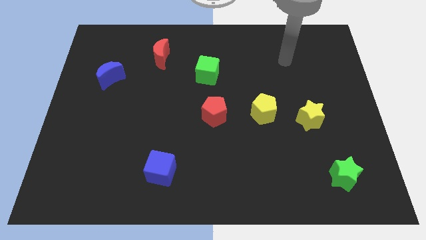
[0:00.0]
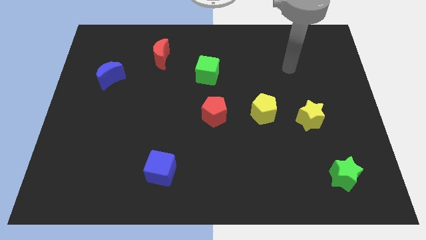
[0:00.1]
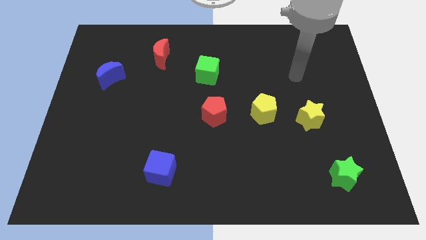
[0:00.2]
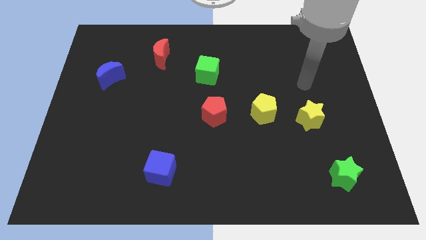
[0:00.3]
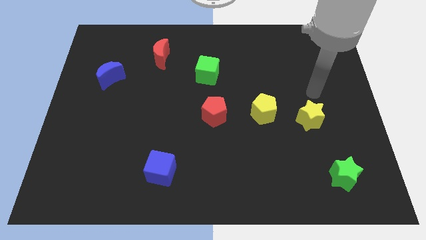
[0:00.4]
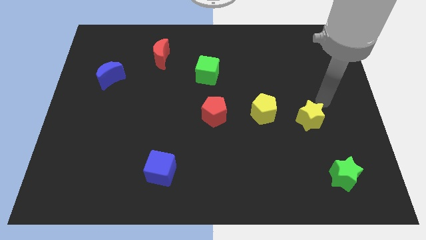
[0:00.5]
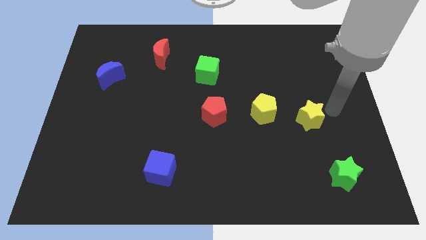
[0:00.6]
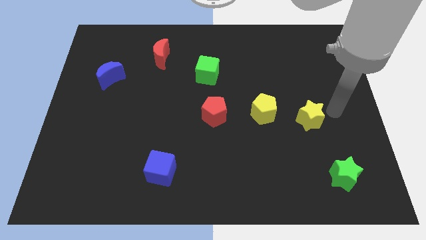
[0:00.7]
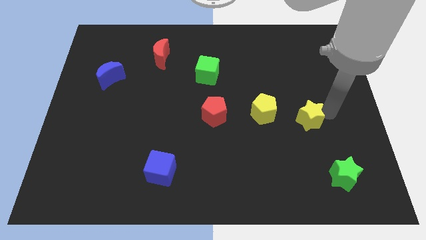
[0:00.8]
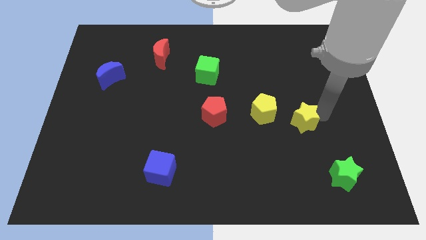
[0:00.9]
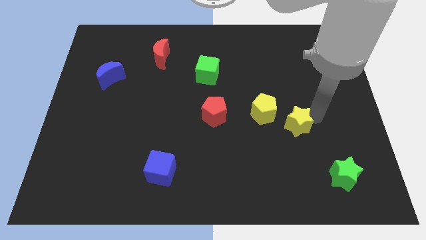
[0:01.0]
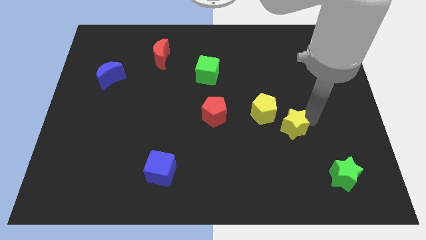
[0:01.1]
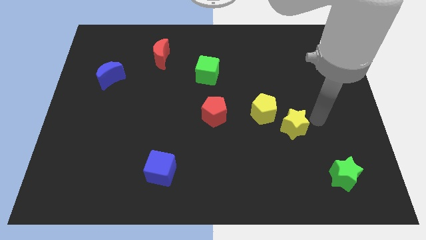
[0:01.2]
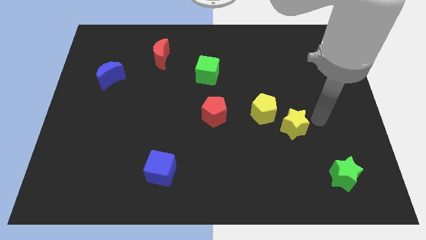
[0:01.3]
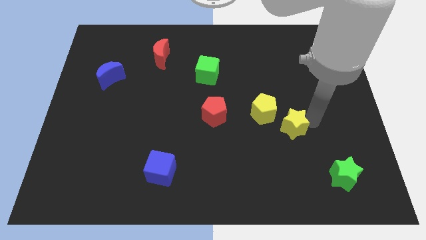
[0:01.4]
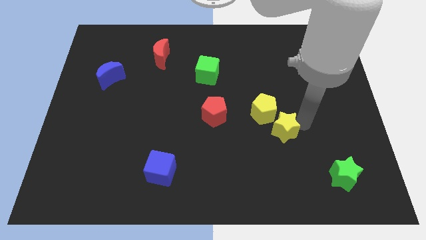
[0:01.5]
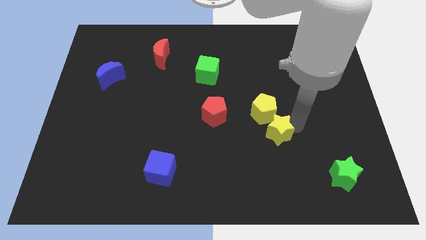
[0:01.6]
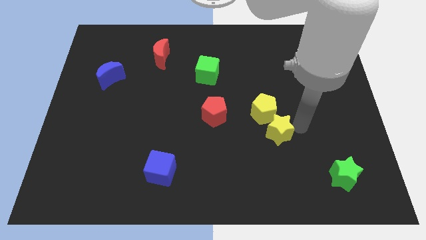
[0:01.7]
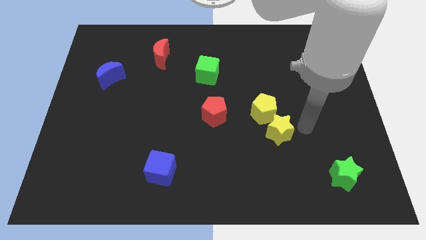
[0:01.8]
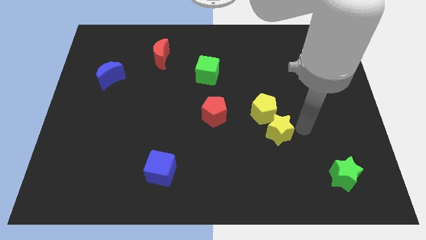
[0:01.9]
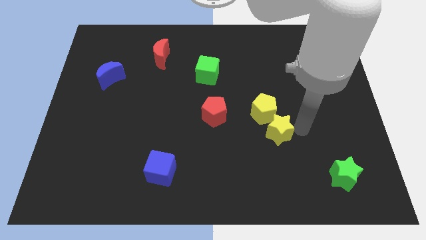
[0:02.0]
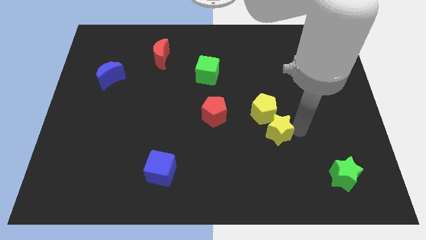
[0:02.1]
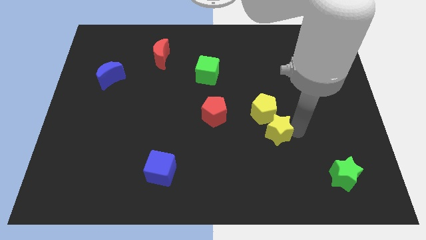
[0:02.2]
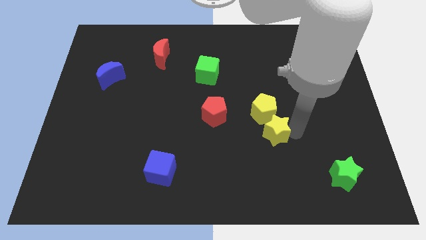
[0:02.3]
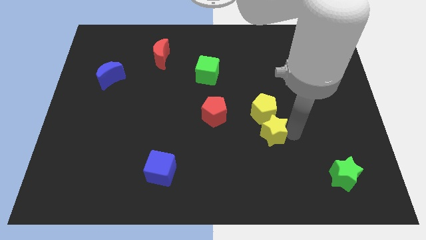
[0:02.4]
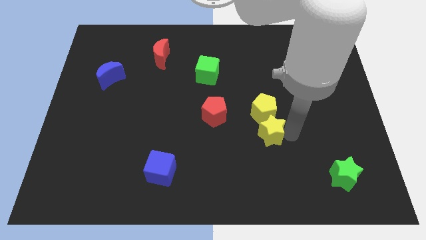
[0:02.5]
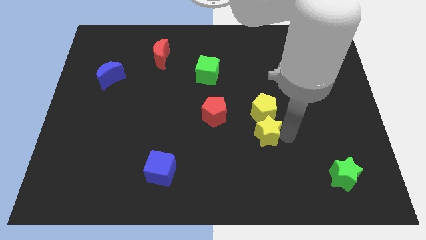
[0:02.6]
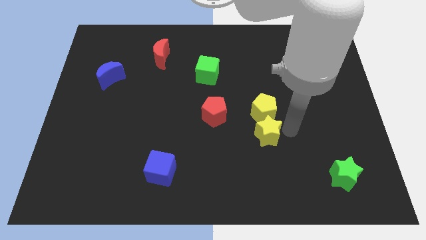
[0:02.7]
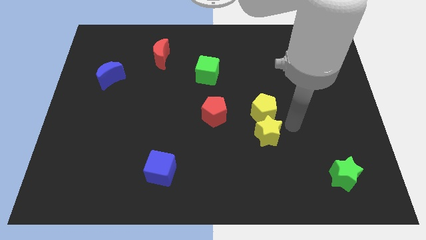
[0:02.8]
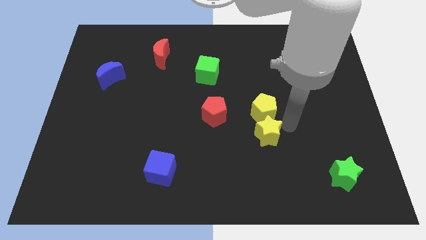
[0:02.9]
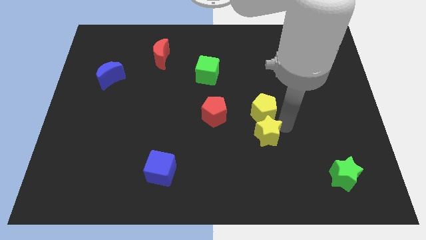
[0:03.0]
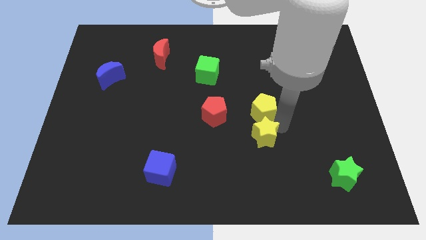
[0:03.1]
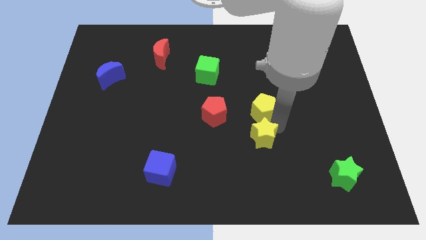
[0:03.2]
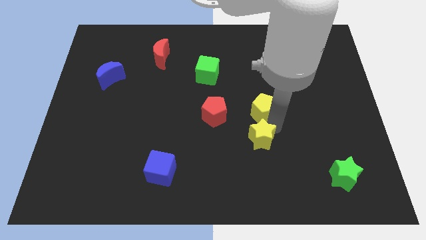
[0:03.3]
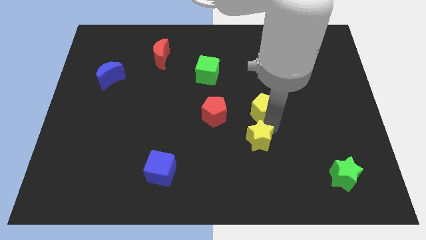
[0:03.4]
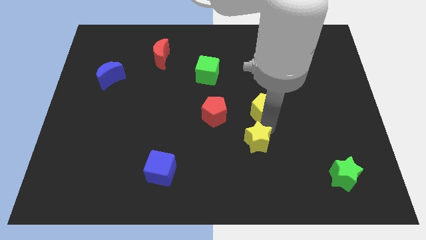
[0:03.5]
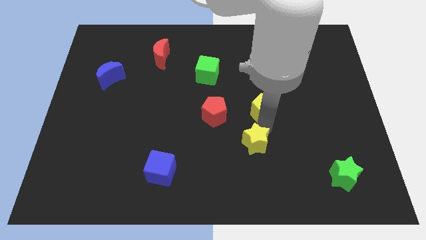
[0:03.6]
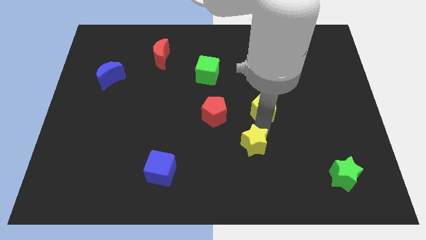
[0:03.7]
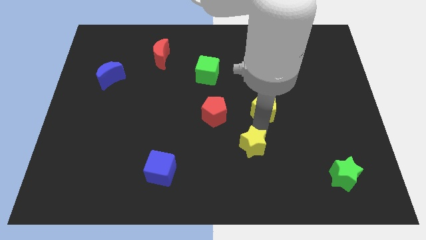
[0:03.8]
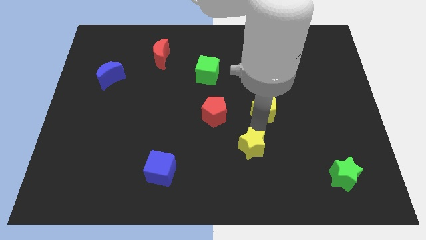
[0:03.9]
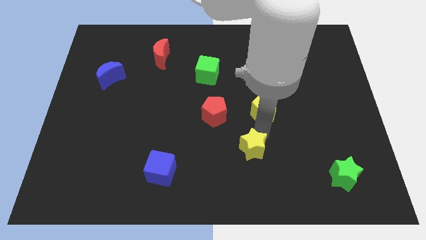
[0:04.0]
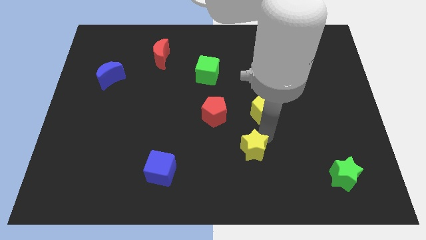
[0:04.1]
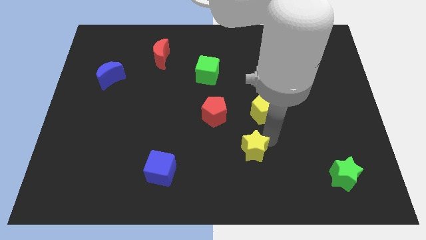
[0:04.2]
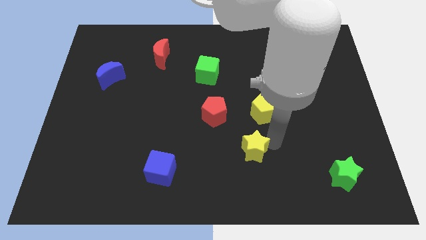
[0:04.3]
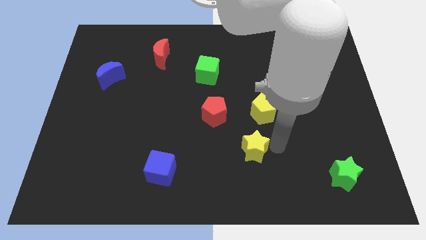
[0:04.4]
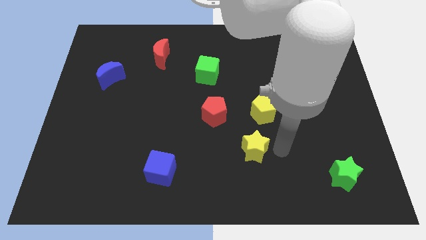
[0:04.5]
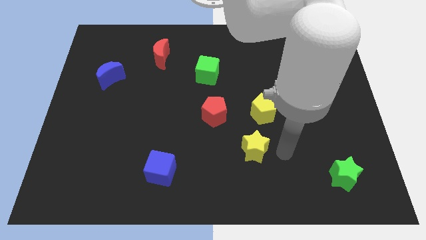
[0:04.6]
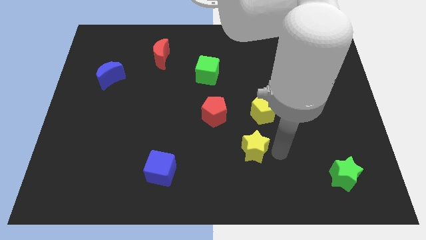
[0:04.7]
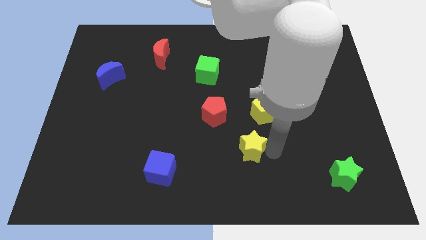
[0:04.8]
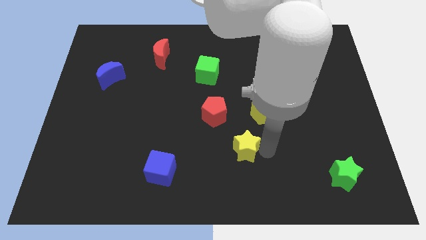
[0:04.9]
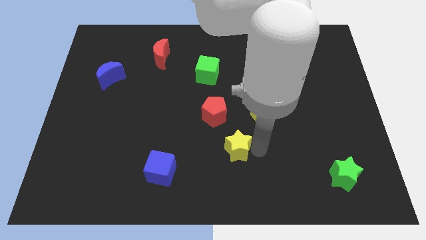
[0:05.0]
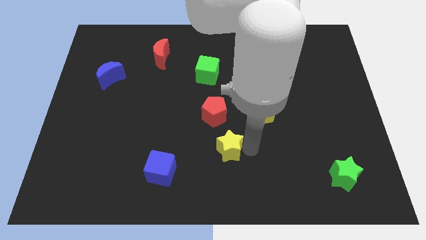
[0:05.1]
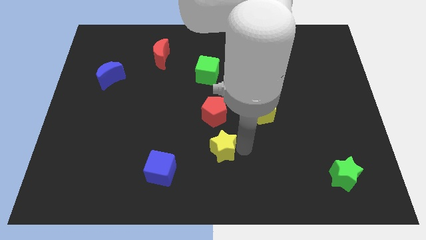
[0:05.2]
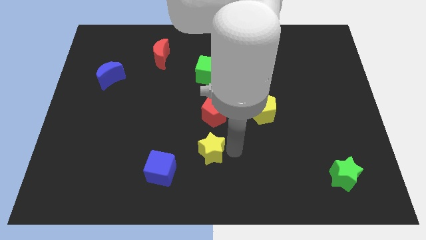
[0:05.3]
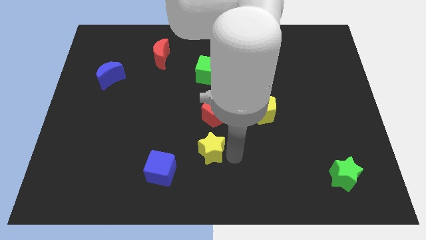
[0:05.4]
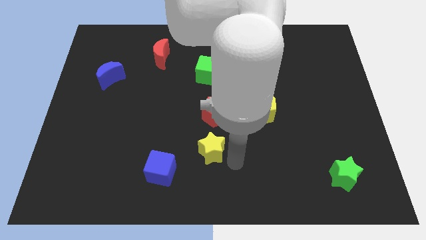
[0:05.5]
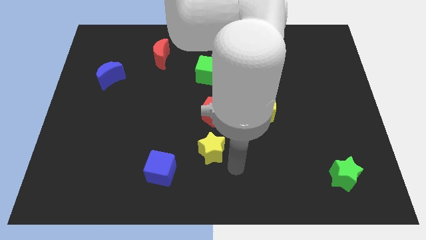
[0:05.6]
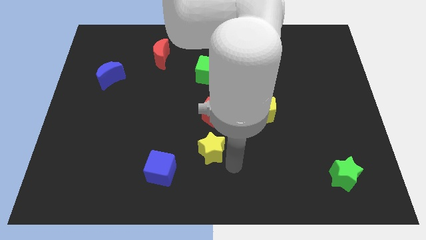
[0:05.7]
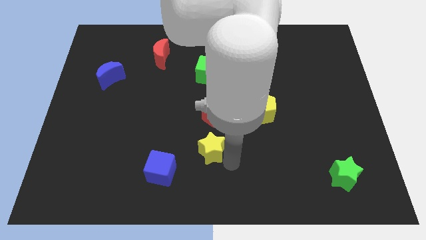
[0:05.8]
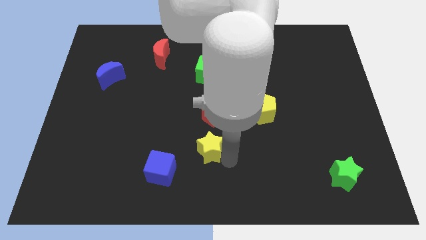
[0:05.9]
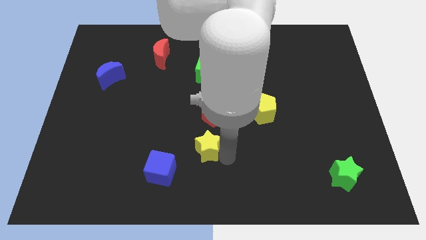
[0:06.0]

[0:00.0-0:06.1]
slide the yellow star left

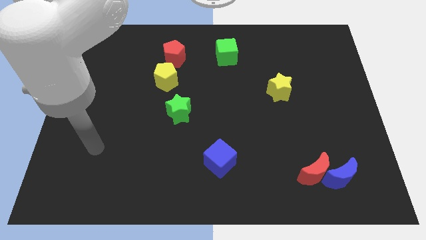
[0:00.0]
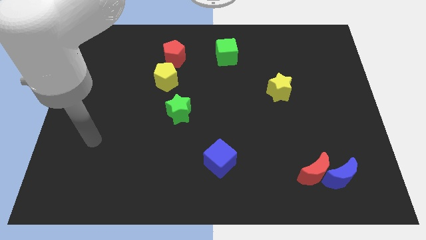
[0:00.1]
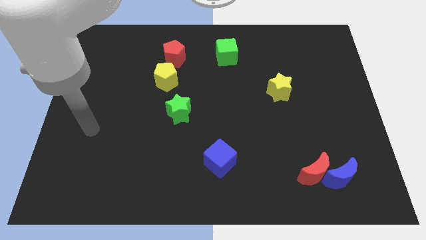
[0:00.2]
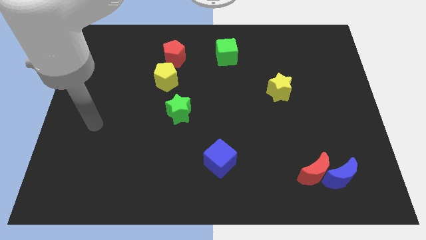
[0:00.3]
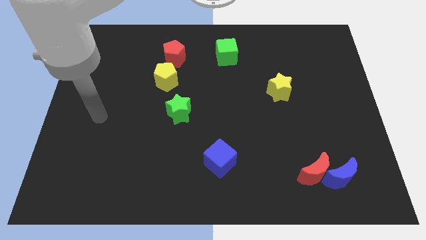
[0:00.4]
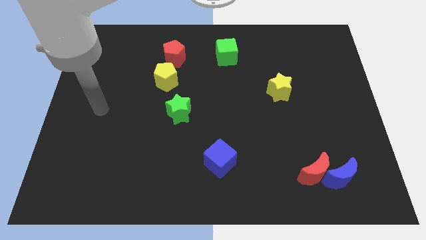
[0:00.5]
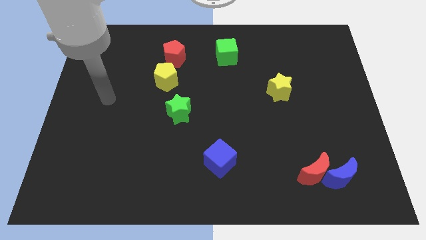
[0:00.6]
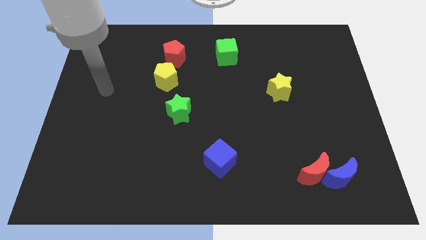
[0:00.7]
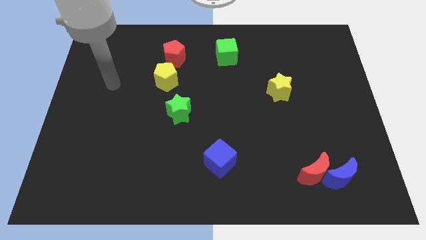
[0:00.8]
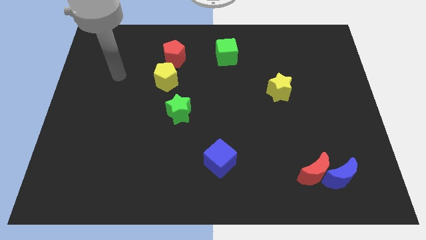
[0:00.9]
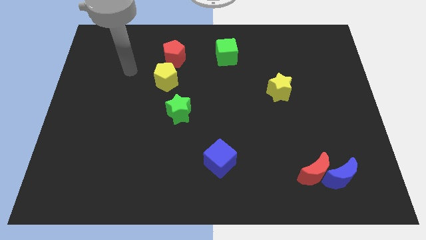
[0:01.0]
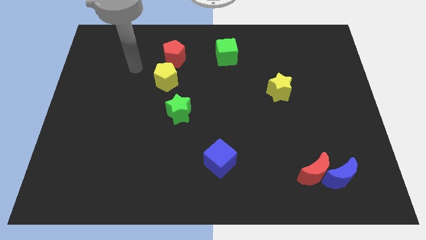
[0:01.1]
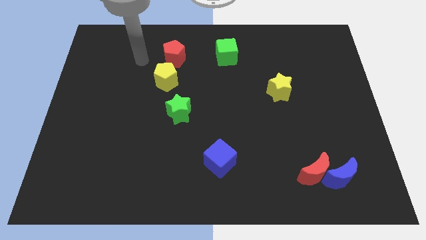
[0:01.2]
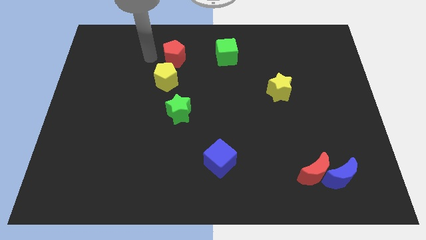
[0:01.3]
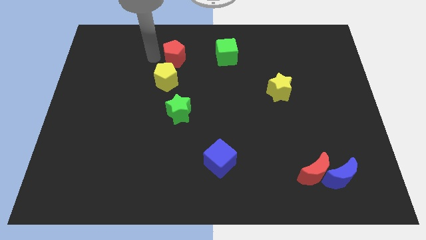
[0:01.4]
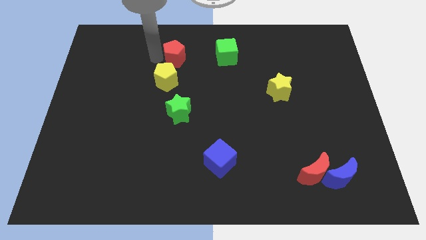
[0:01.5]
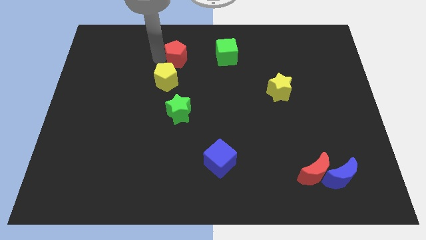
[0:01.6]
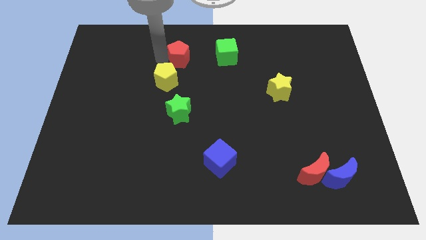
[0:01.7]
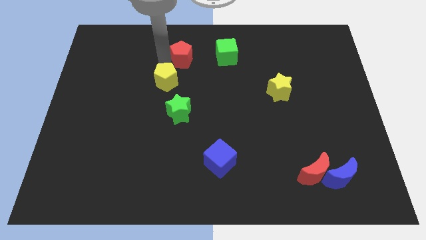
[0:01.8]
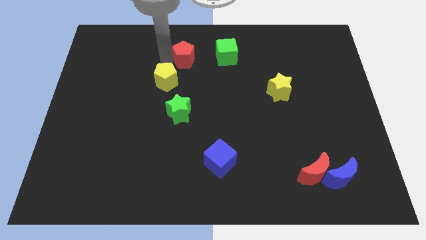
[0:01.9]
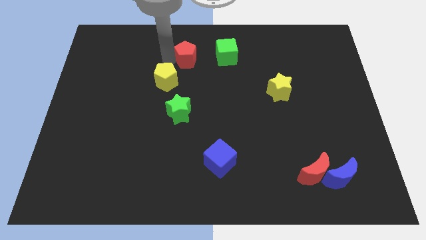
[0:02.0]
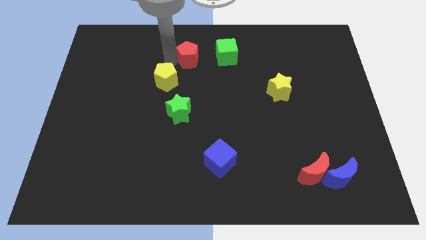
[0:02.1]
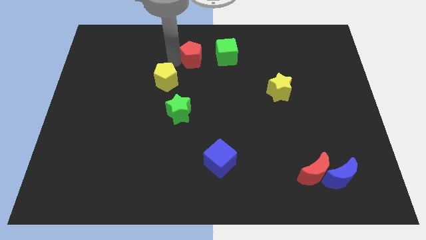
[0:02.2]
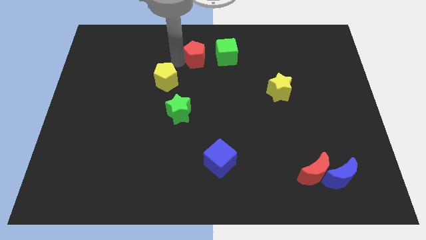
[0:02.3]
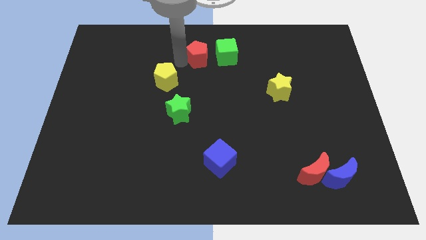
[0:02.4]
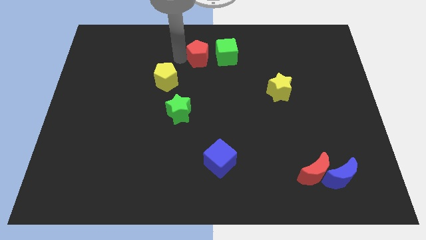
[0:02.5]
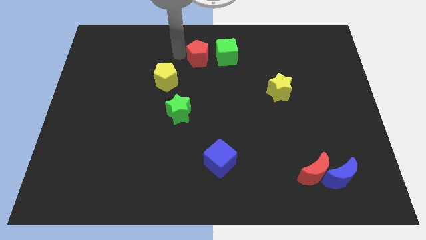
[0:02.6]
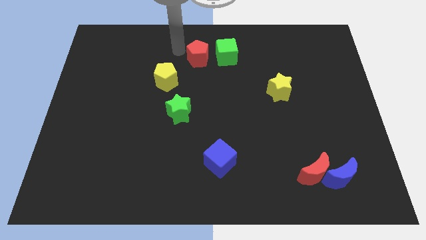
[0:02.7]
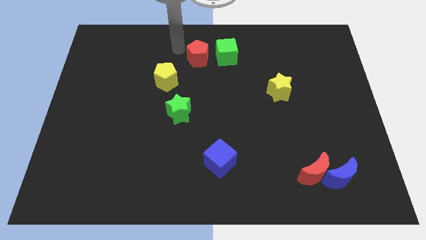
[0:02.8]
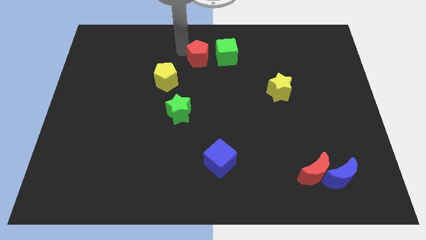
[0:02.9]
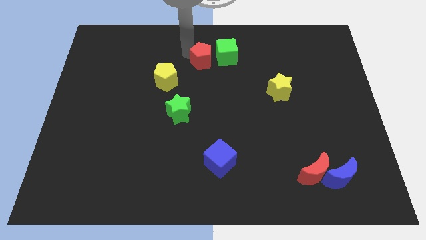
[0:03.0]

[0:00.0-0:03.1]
push the red pentagon a bit to the right
